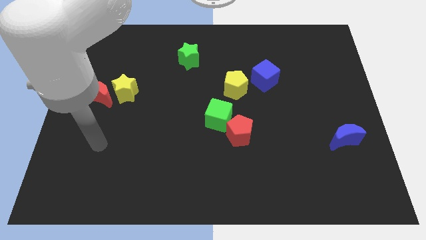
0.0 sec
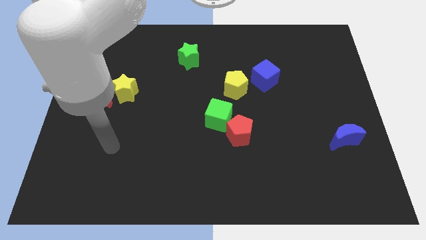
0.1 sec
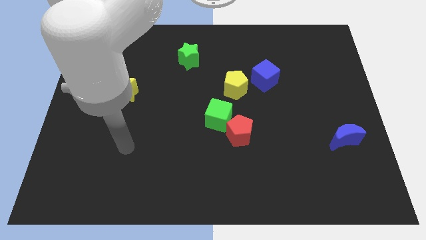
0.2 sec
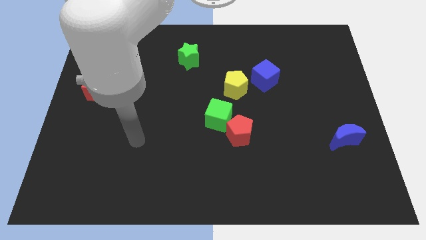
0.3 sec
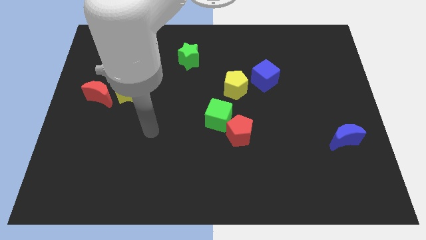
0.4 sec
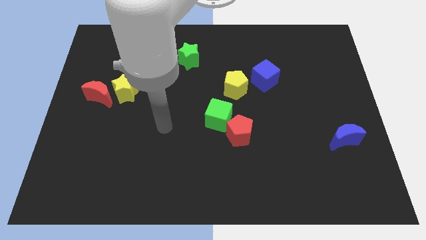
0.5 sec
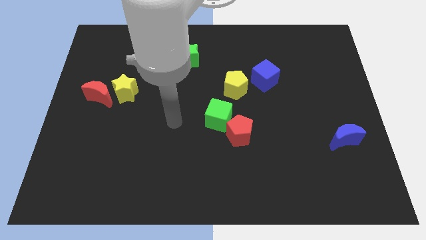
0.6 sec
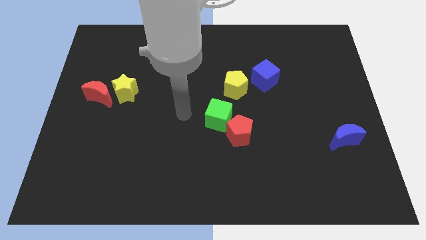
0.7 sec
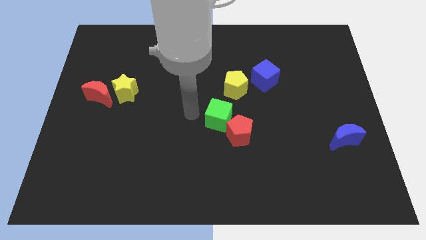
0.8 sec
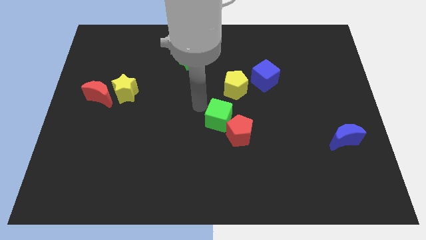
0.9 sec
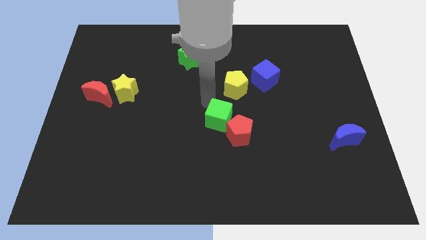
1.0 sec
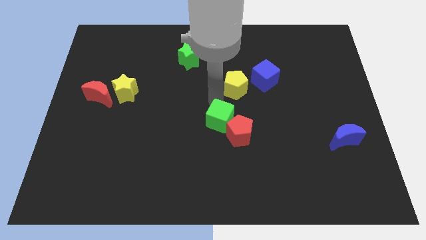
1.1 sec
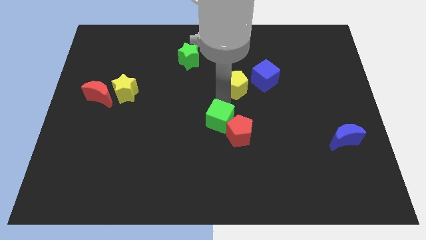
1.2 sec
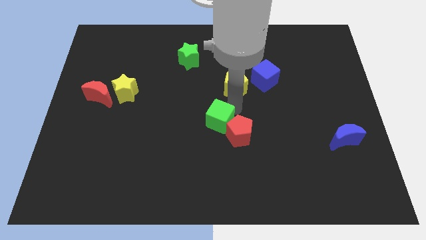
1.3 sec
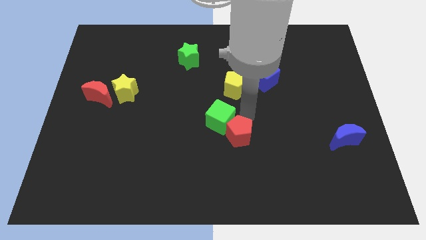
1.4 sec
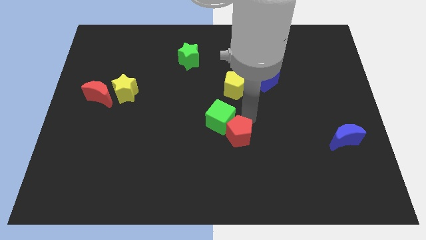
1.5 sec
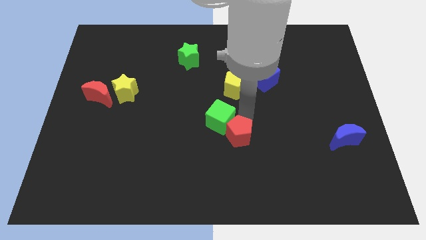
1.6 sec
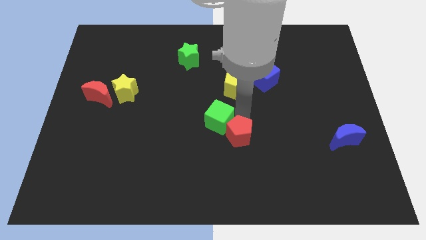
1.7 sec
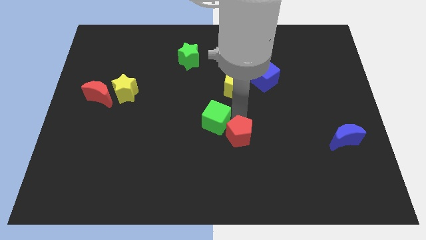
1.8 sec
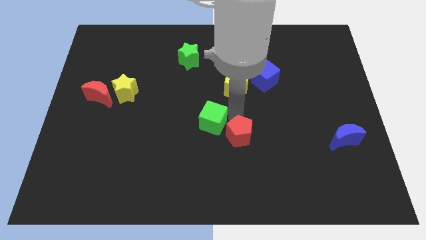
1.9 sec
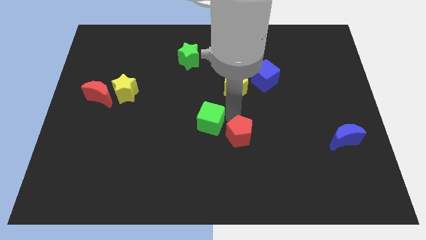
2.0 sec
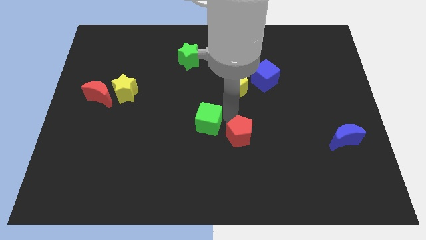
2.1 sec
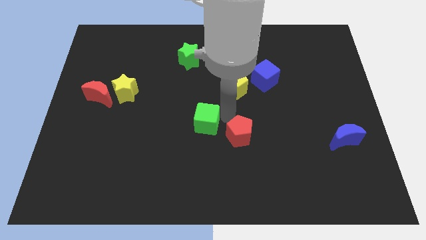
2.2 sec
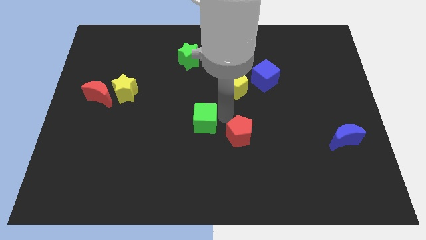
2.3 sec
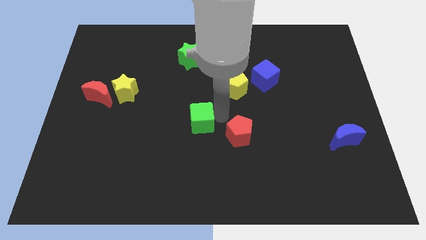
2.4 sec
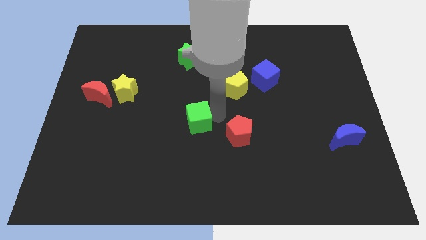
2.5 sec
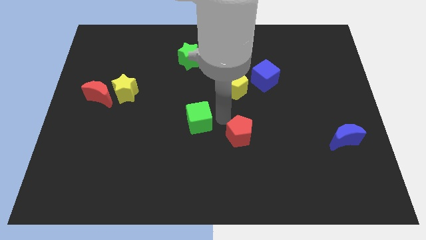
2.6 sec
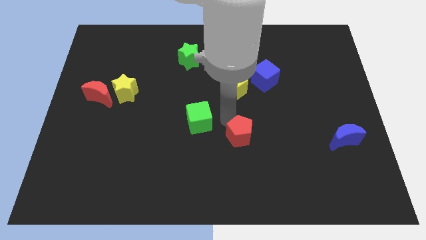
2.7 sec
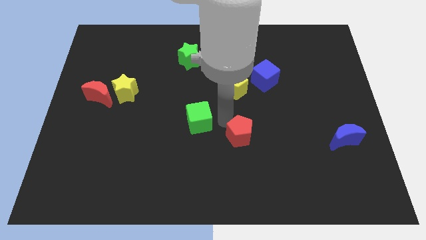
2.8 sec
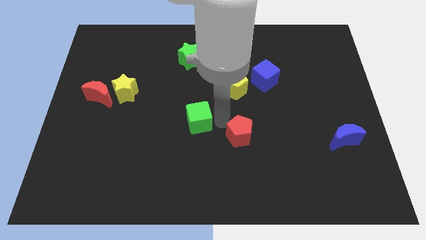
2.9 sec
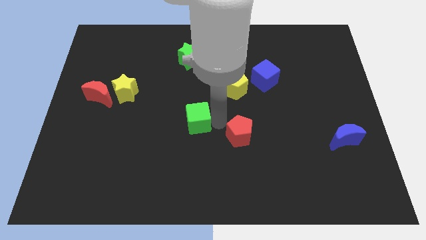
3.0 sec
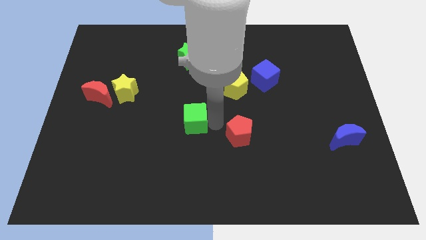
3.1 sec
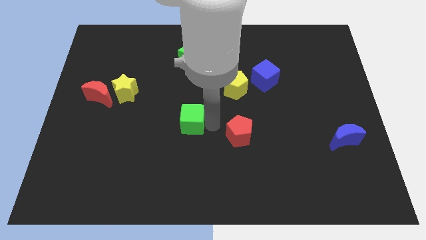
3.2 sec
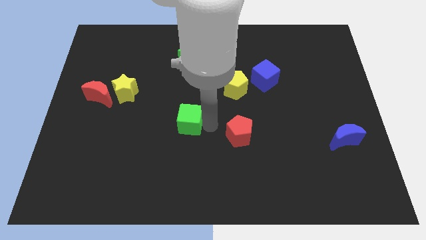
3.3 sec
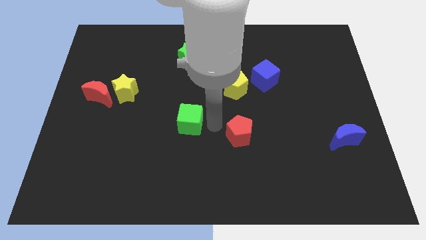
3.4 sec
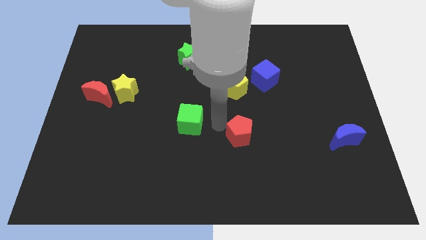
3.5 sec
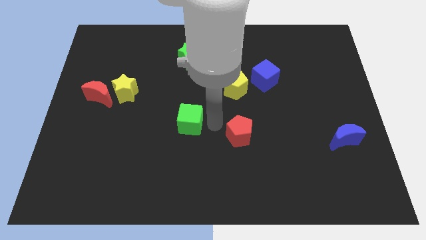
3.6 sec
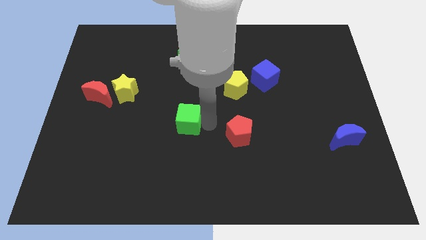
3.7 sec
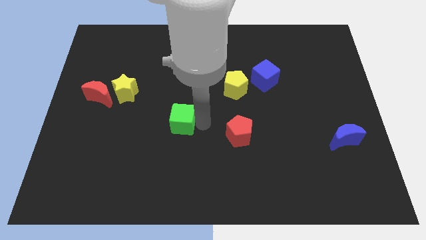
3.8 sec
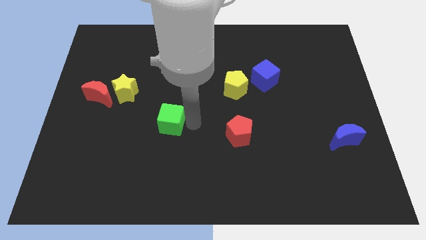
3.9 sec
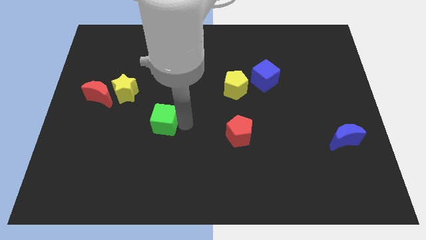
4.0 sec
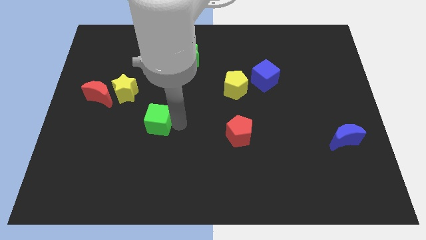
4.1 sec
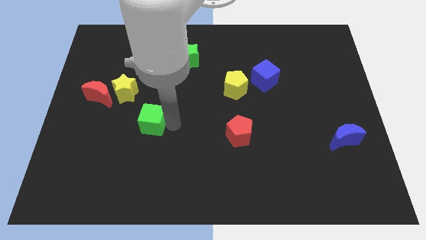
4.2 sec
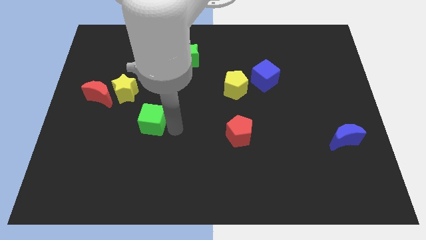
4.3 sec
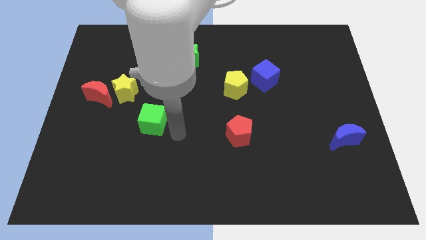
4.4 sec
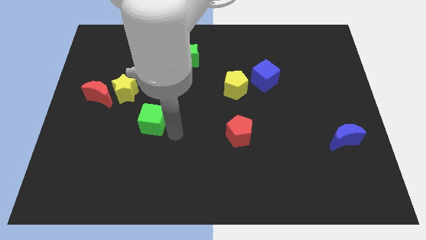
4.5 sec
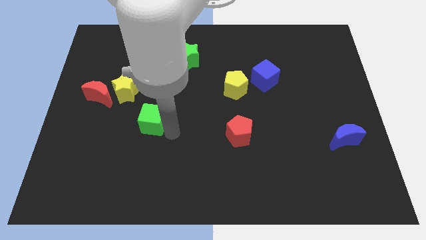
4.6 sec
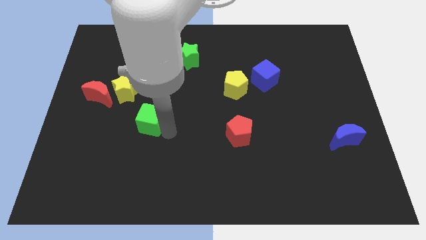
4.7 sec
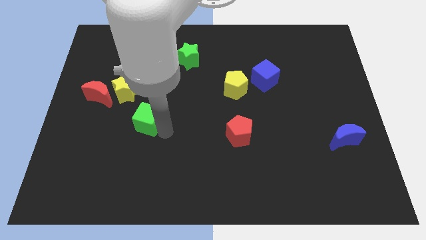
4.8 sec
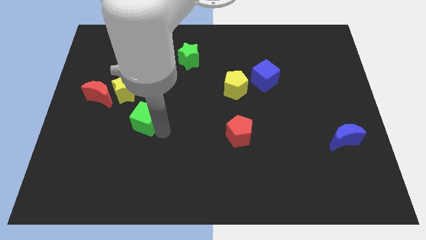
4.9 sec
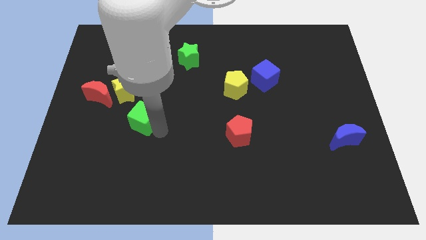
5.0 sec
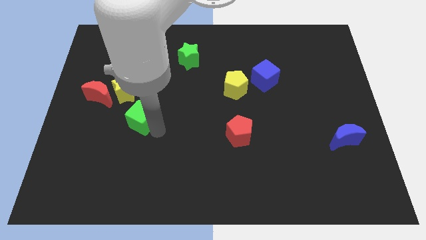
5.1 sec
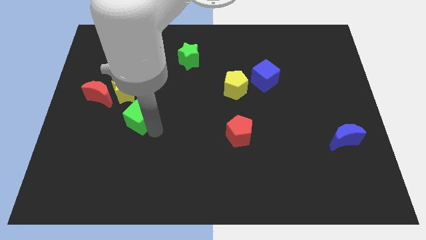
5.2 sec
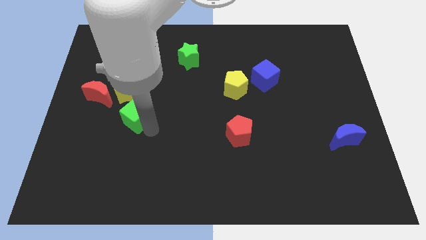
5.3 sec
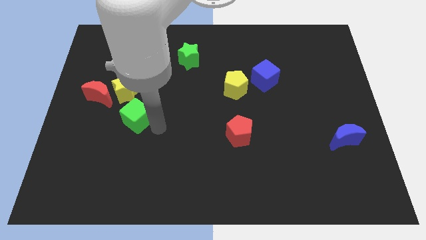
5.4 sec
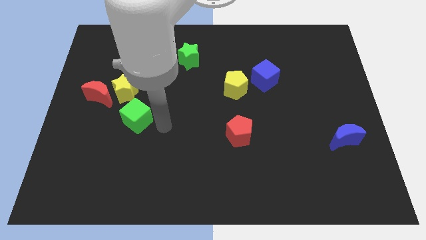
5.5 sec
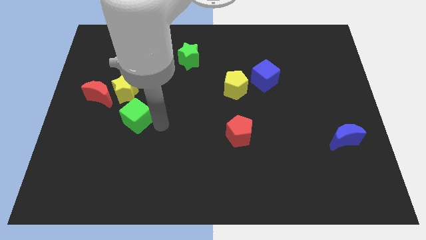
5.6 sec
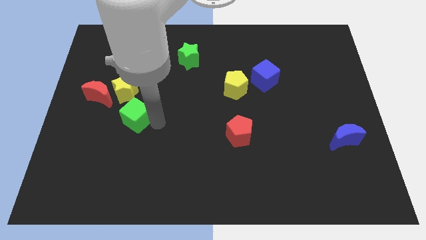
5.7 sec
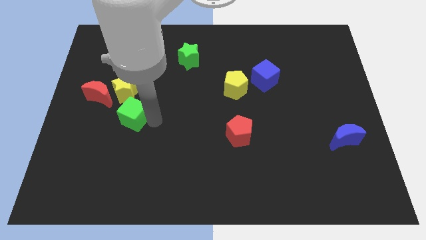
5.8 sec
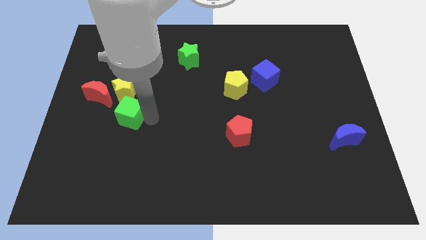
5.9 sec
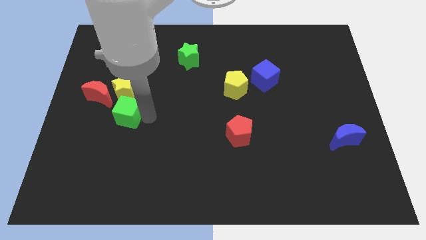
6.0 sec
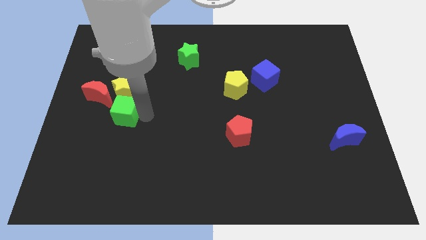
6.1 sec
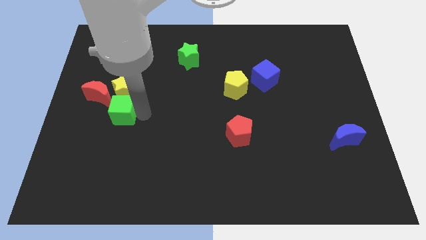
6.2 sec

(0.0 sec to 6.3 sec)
put the green cube to the bottom left of the yellow star

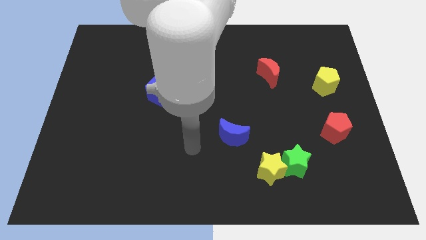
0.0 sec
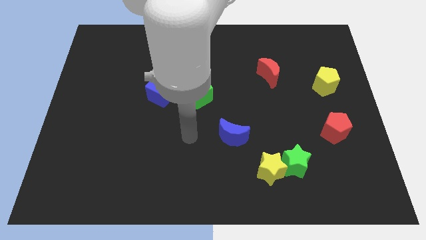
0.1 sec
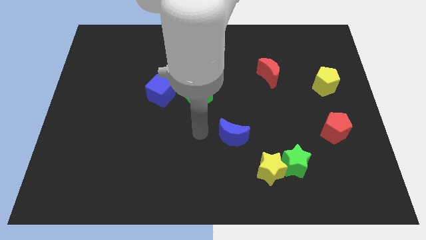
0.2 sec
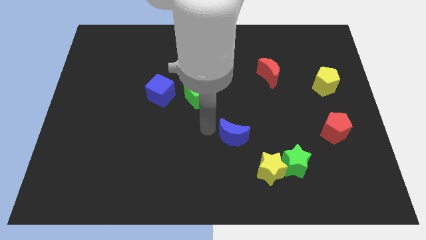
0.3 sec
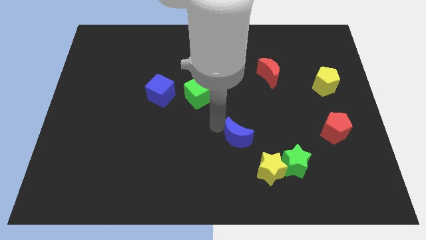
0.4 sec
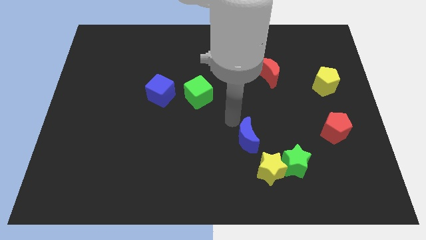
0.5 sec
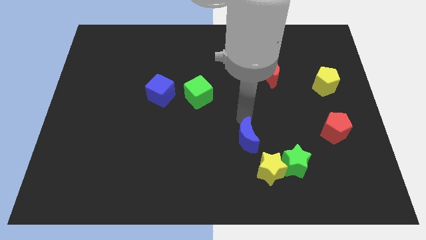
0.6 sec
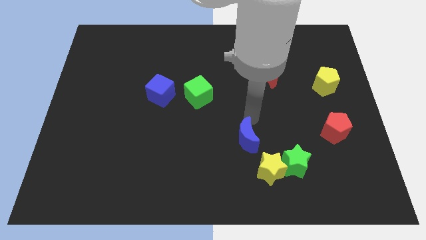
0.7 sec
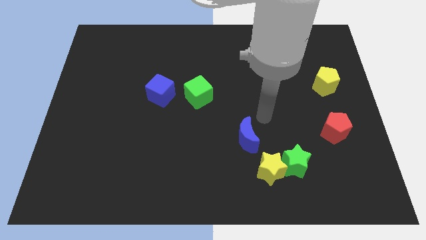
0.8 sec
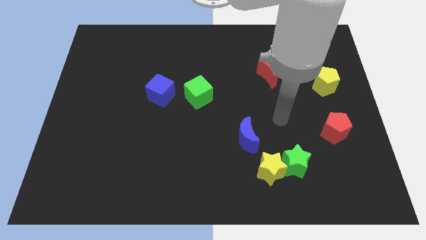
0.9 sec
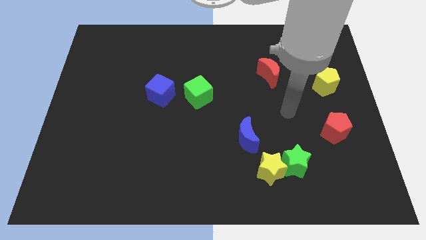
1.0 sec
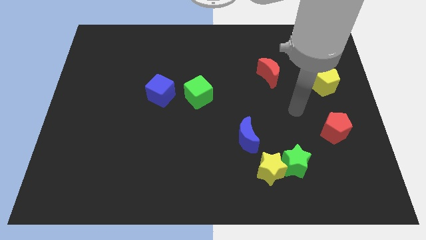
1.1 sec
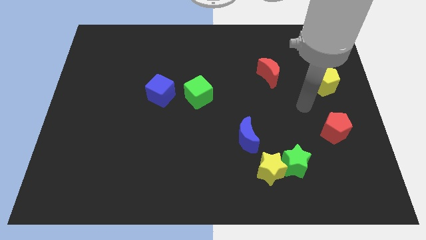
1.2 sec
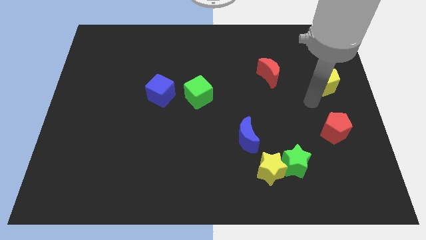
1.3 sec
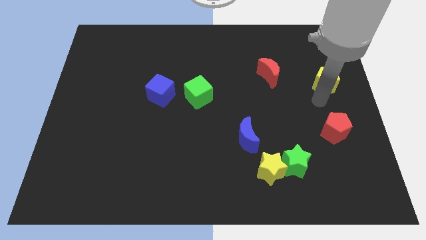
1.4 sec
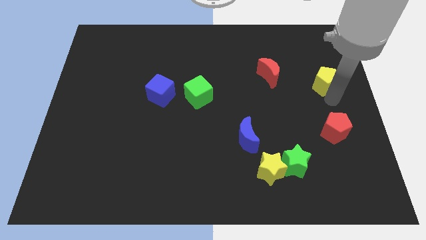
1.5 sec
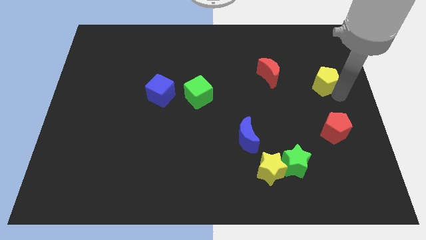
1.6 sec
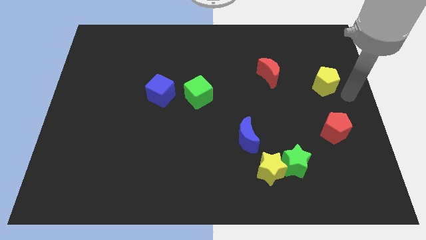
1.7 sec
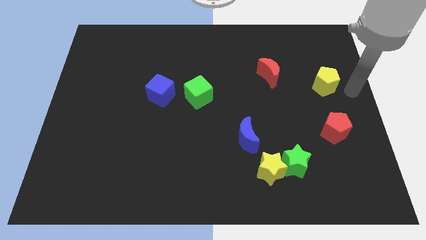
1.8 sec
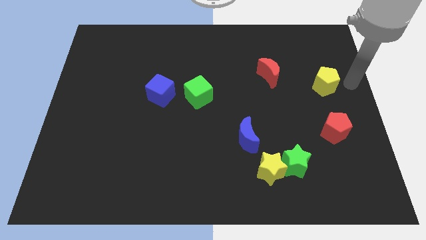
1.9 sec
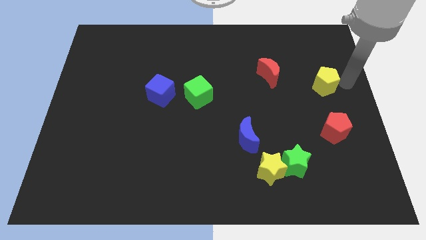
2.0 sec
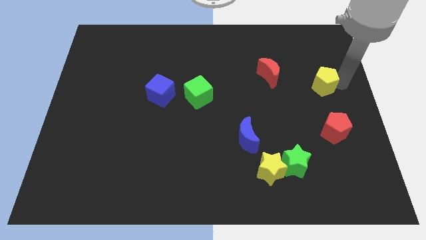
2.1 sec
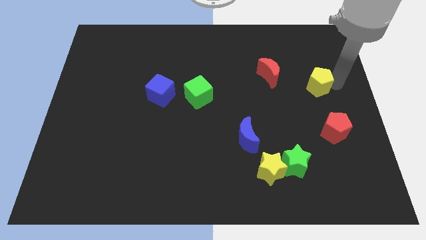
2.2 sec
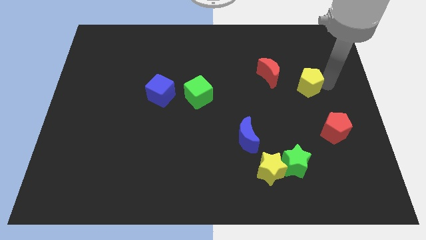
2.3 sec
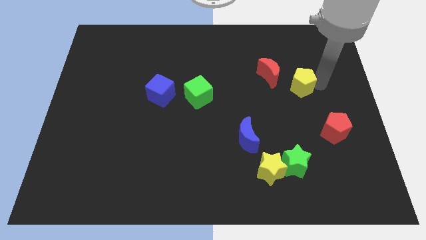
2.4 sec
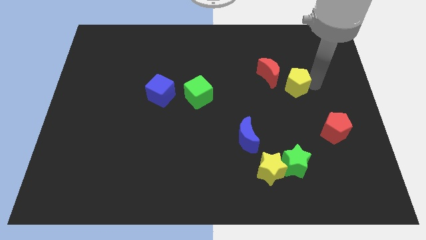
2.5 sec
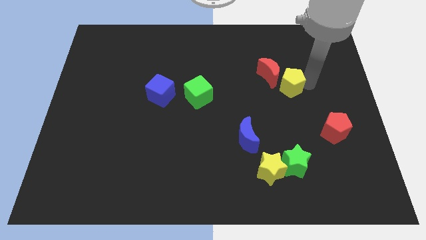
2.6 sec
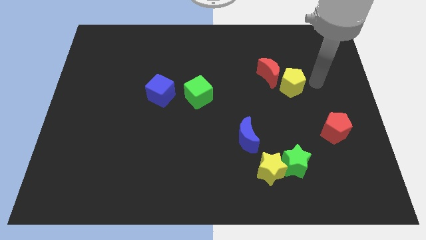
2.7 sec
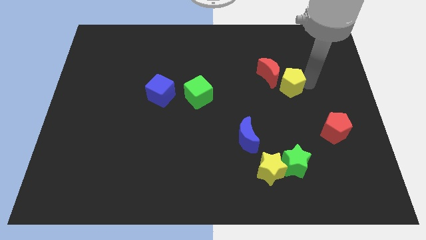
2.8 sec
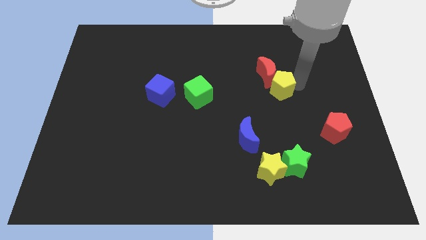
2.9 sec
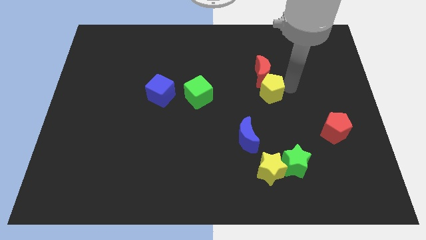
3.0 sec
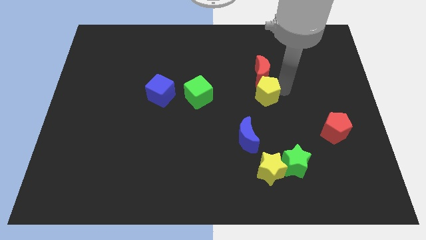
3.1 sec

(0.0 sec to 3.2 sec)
push the yellow pentagon to the bottom left of the red moon
